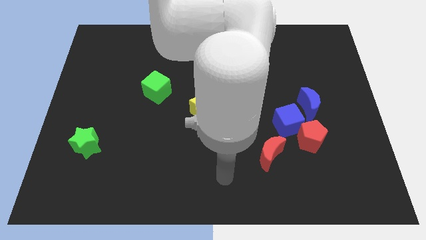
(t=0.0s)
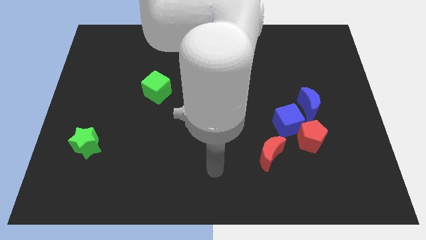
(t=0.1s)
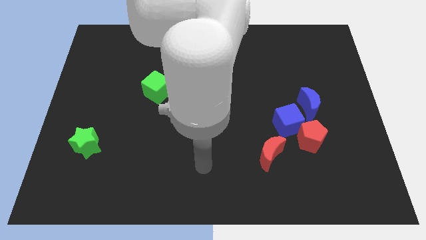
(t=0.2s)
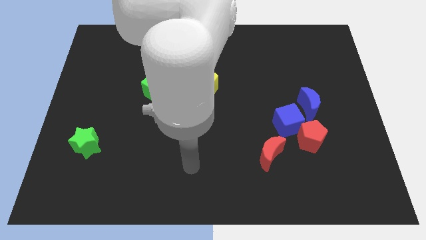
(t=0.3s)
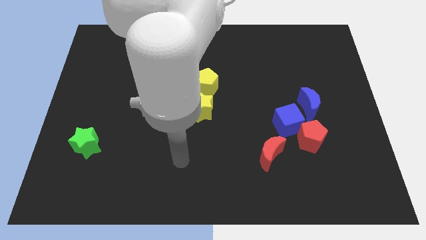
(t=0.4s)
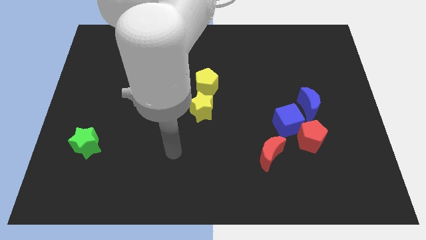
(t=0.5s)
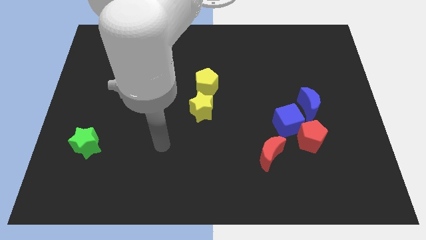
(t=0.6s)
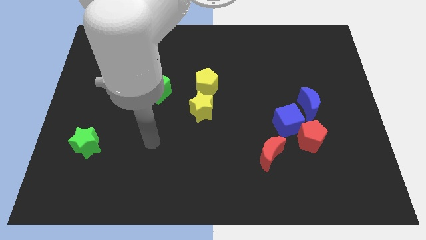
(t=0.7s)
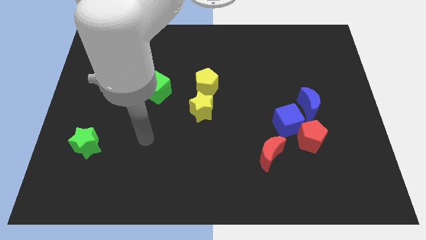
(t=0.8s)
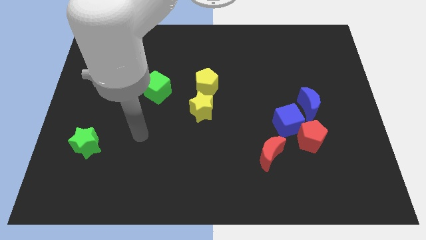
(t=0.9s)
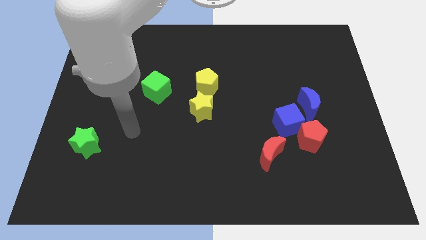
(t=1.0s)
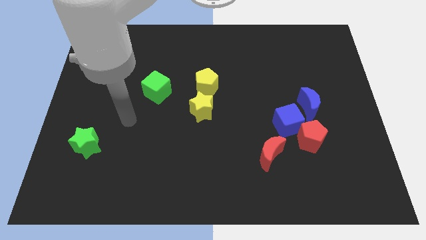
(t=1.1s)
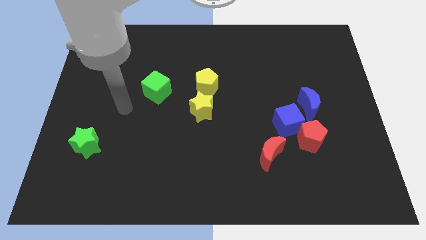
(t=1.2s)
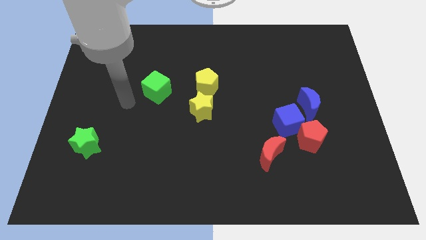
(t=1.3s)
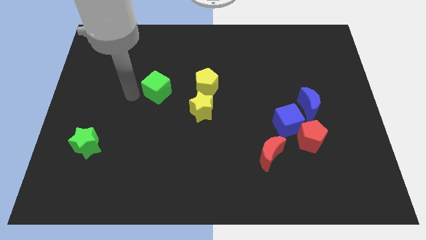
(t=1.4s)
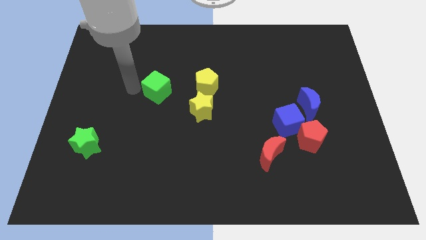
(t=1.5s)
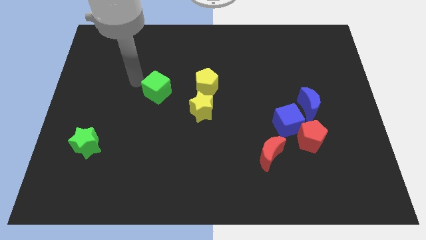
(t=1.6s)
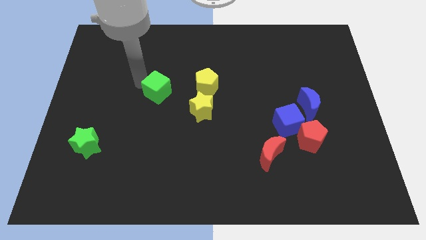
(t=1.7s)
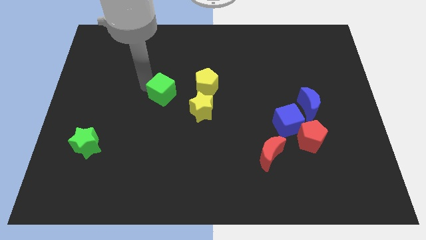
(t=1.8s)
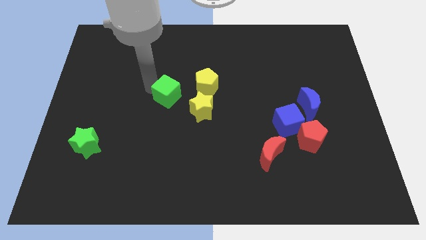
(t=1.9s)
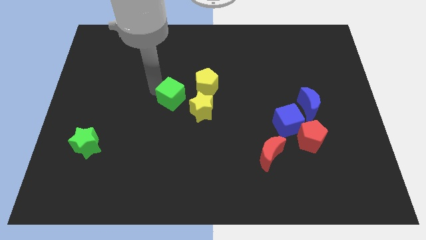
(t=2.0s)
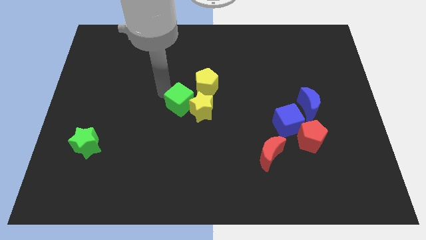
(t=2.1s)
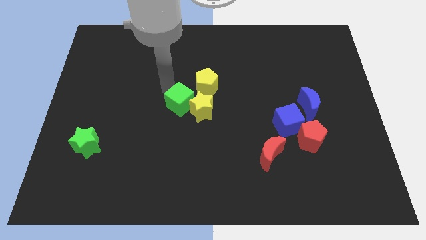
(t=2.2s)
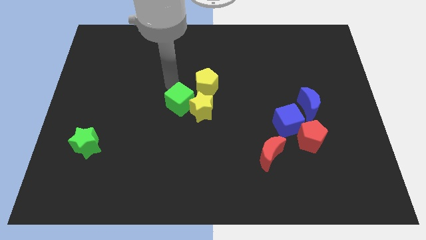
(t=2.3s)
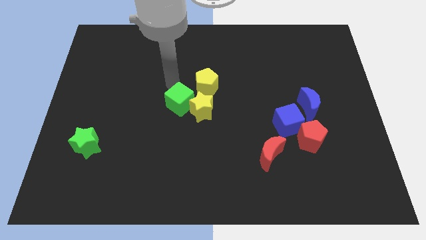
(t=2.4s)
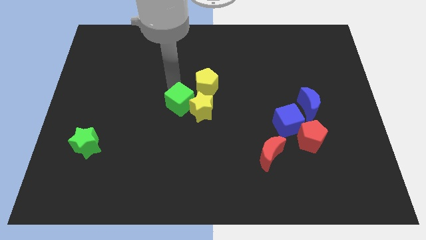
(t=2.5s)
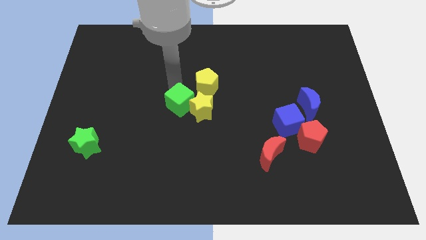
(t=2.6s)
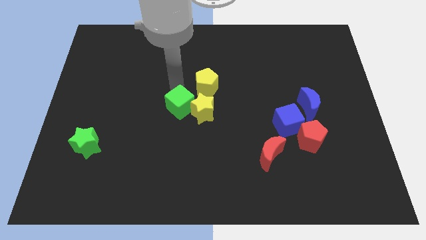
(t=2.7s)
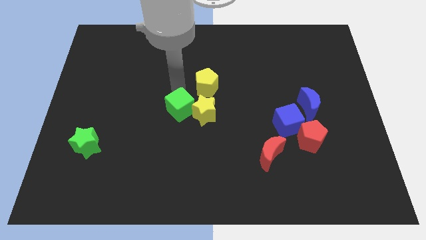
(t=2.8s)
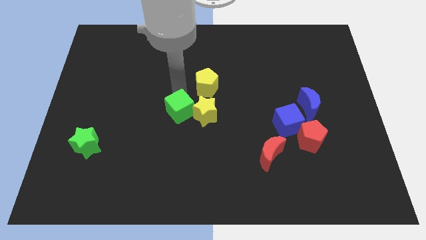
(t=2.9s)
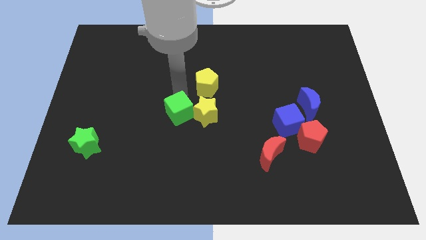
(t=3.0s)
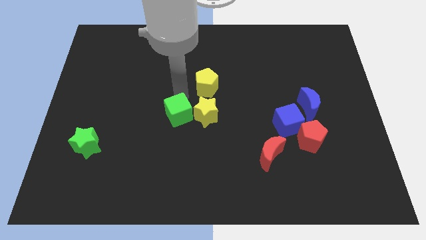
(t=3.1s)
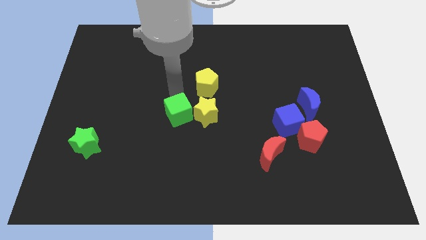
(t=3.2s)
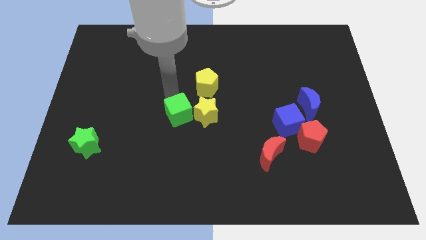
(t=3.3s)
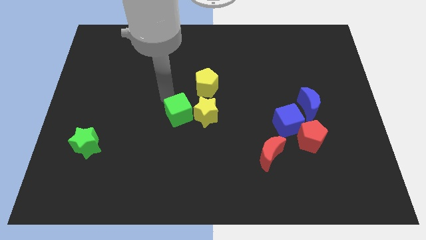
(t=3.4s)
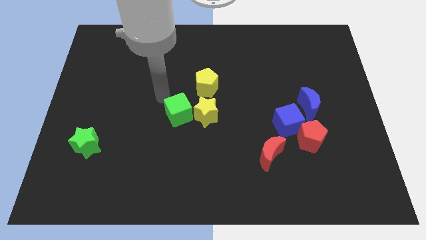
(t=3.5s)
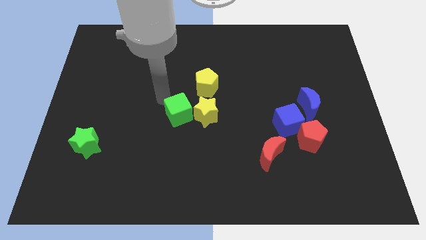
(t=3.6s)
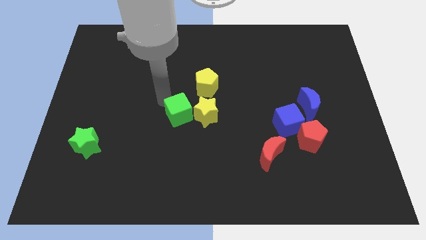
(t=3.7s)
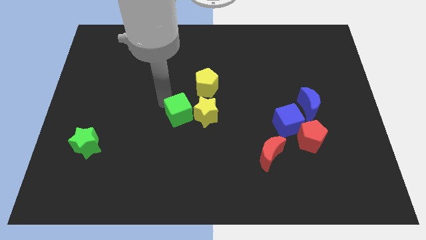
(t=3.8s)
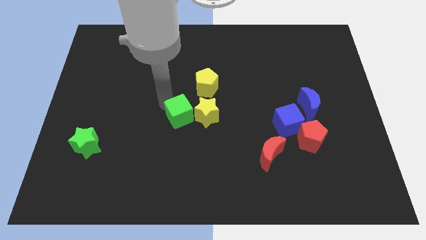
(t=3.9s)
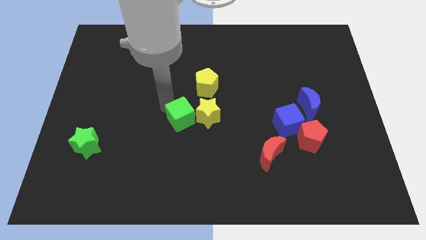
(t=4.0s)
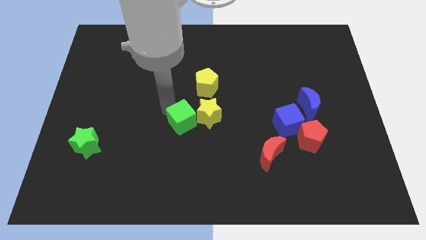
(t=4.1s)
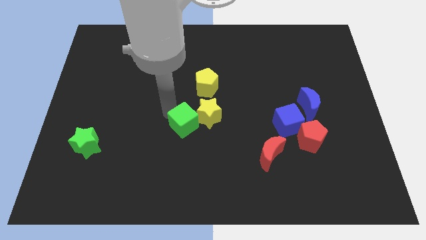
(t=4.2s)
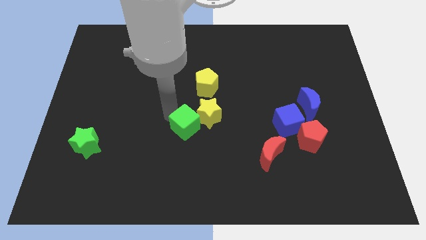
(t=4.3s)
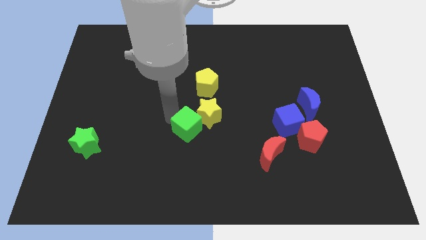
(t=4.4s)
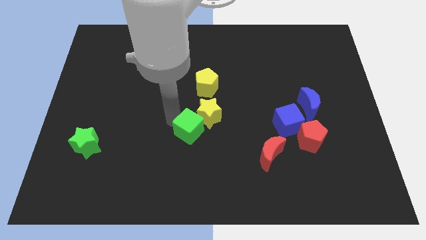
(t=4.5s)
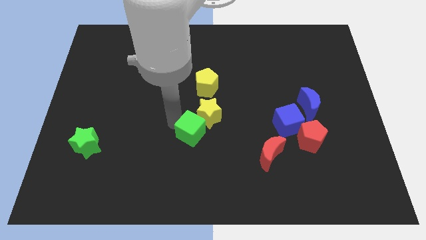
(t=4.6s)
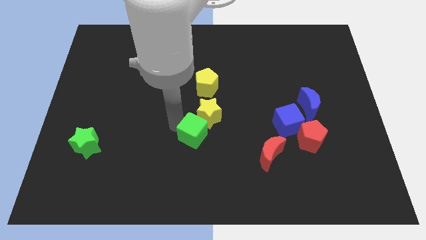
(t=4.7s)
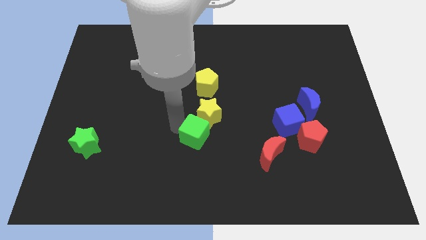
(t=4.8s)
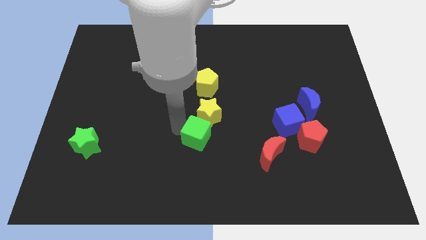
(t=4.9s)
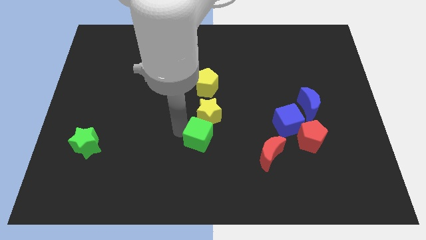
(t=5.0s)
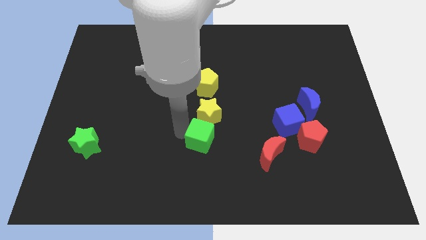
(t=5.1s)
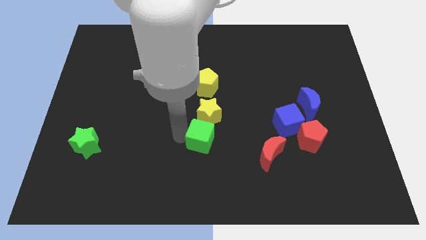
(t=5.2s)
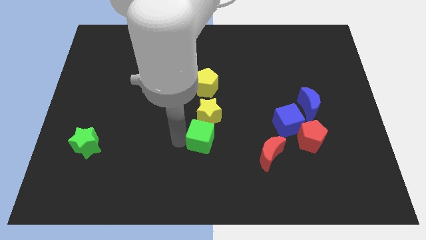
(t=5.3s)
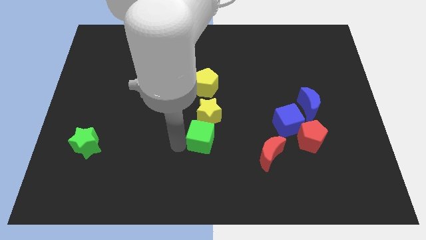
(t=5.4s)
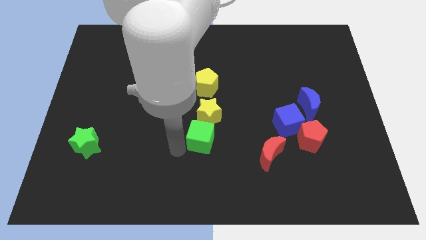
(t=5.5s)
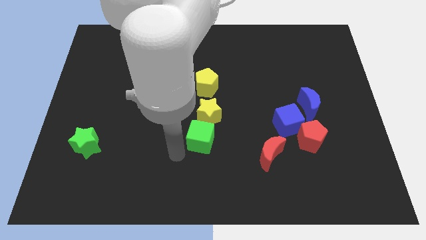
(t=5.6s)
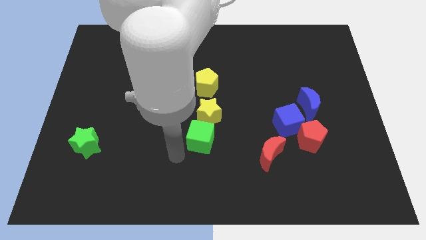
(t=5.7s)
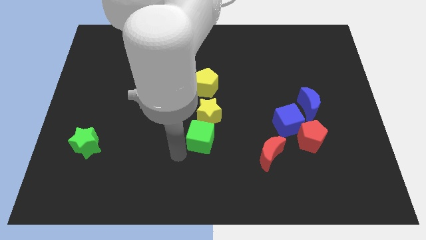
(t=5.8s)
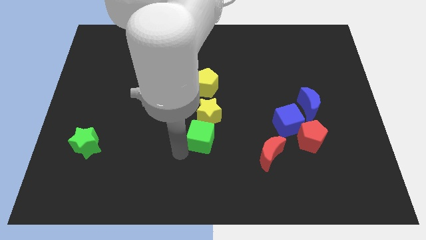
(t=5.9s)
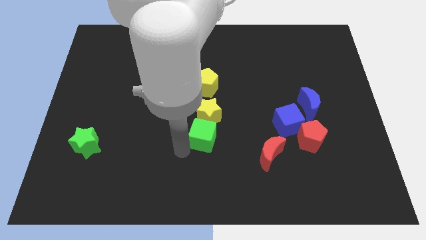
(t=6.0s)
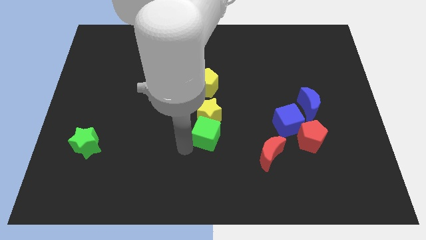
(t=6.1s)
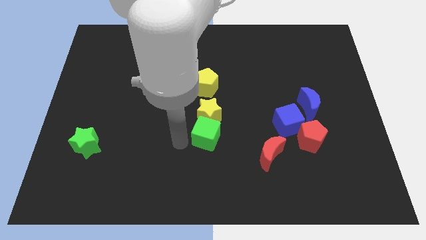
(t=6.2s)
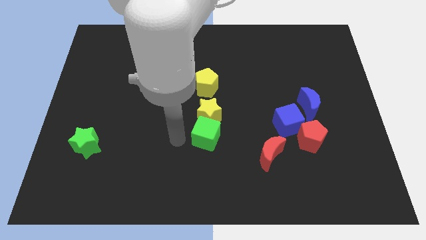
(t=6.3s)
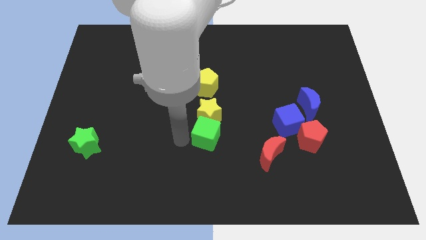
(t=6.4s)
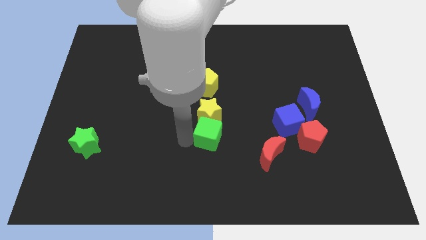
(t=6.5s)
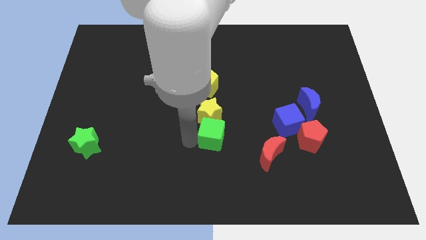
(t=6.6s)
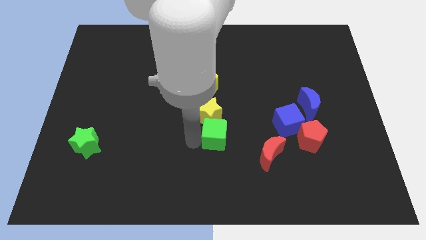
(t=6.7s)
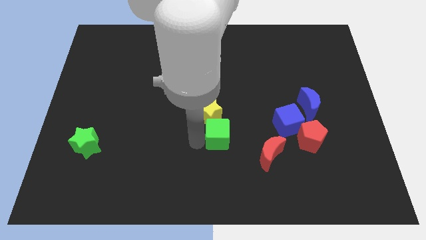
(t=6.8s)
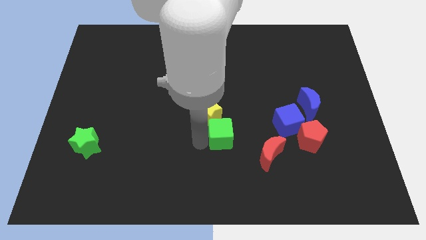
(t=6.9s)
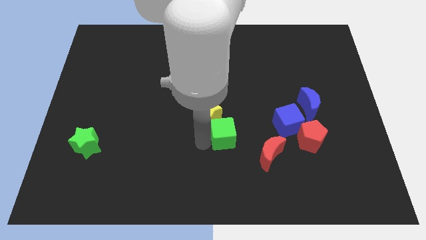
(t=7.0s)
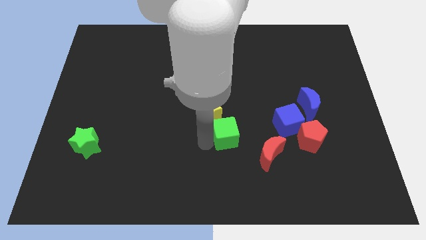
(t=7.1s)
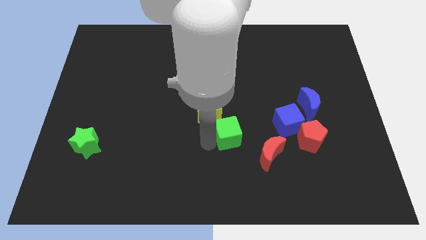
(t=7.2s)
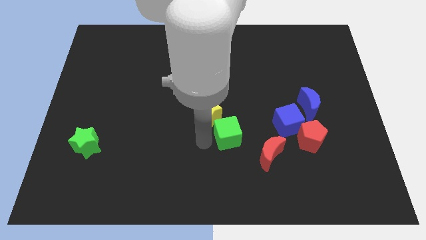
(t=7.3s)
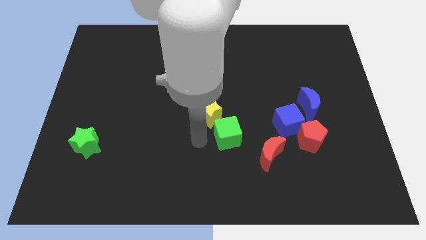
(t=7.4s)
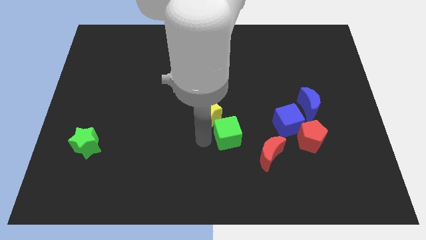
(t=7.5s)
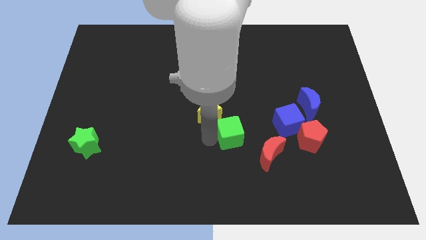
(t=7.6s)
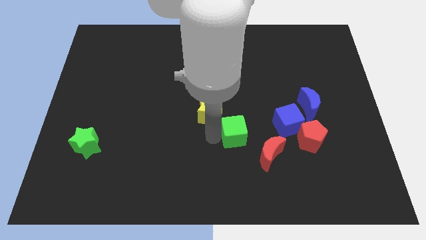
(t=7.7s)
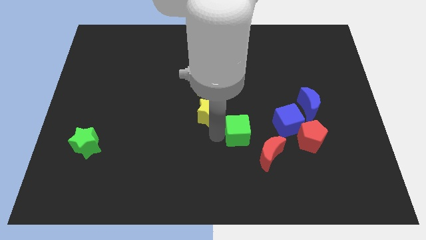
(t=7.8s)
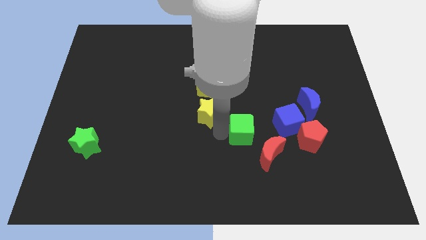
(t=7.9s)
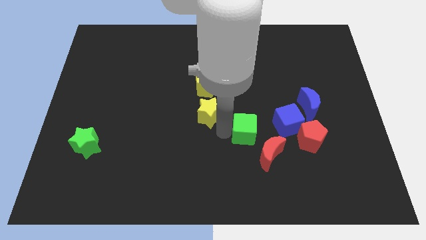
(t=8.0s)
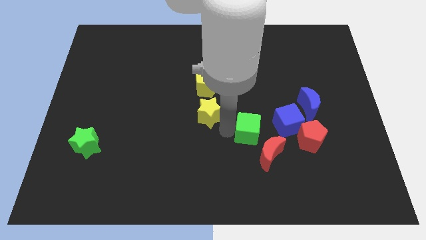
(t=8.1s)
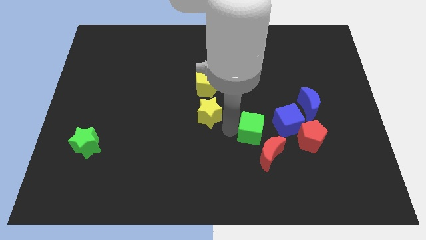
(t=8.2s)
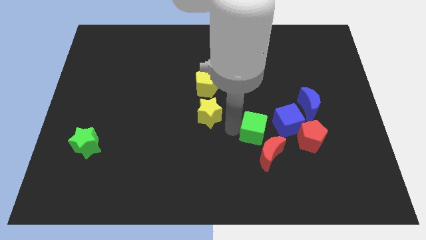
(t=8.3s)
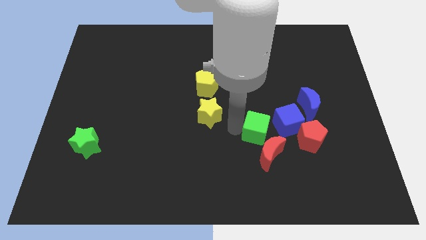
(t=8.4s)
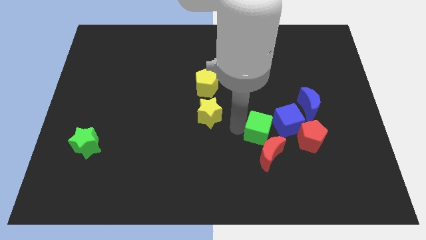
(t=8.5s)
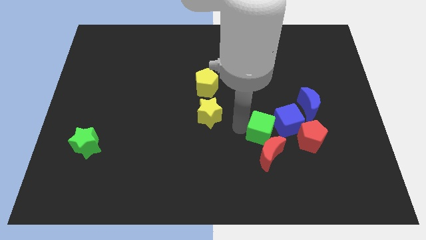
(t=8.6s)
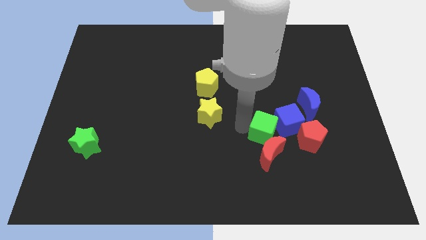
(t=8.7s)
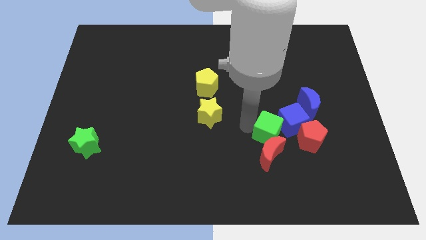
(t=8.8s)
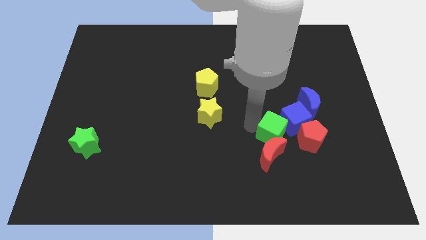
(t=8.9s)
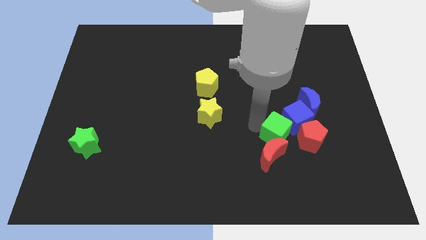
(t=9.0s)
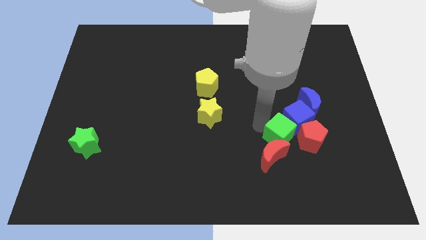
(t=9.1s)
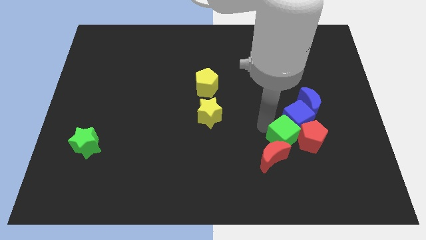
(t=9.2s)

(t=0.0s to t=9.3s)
put the green cube diagonally down and to the left of the red pentagon
